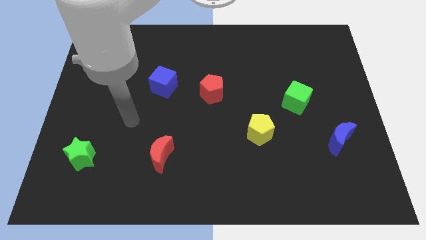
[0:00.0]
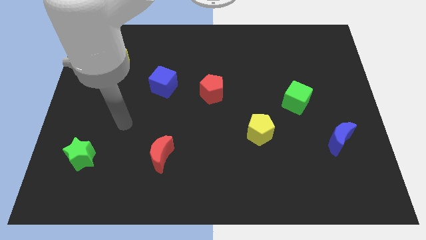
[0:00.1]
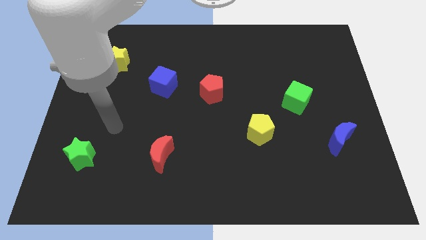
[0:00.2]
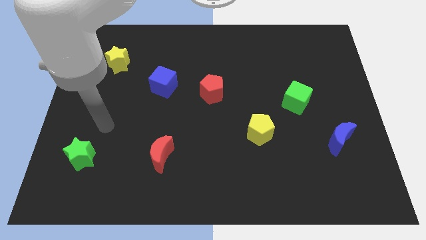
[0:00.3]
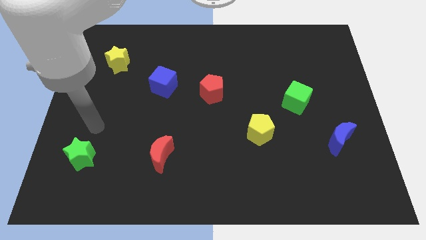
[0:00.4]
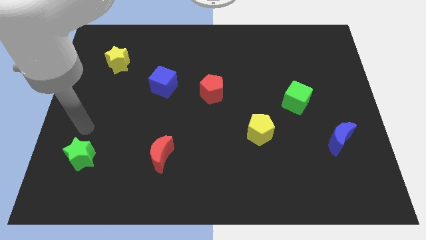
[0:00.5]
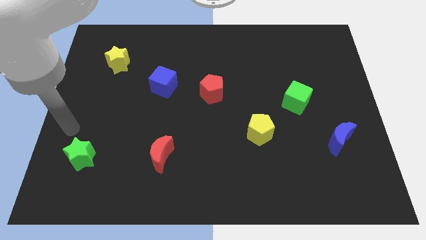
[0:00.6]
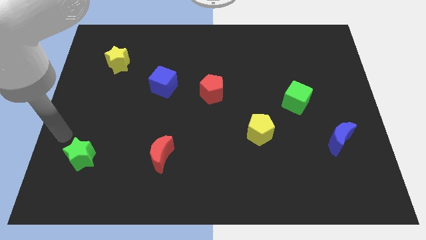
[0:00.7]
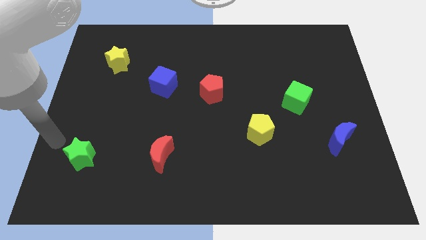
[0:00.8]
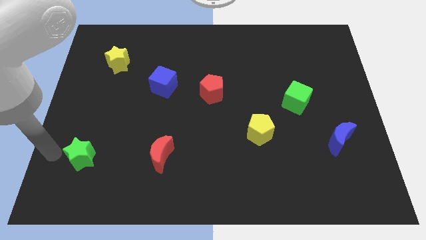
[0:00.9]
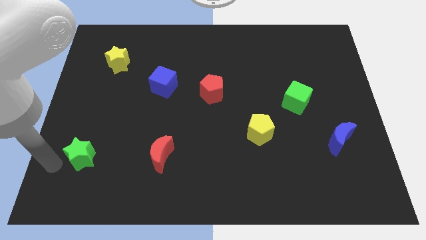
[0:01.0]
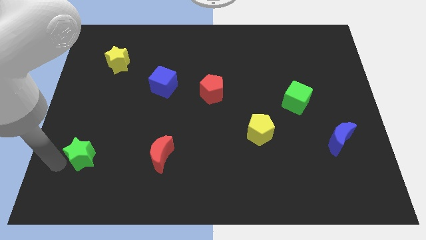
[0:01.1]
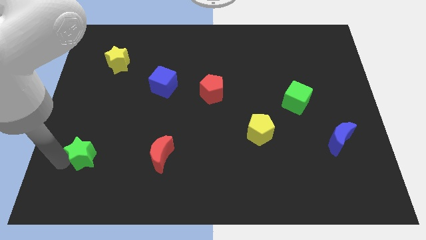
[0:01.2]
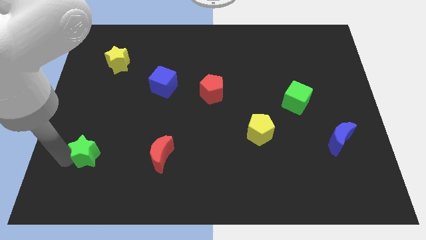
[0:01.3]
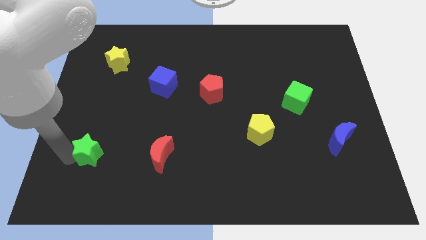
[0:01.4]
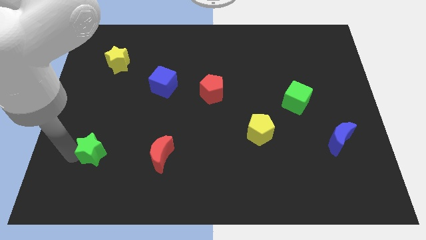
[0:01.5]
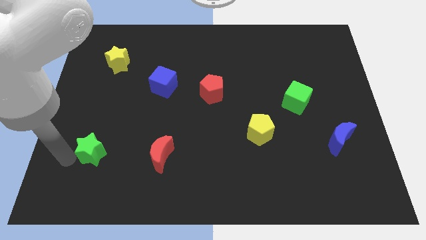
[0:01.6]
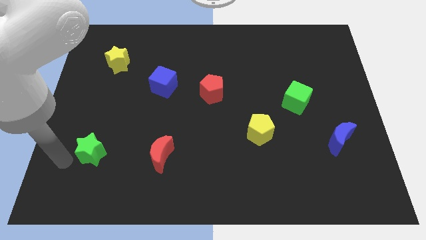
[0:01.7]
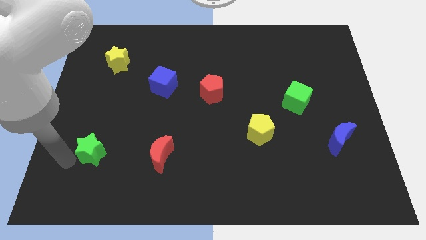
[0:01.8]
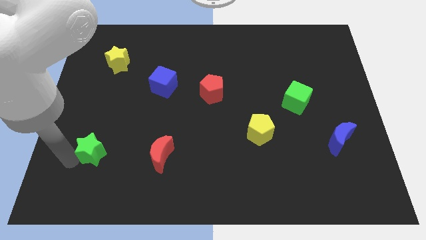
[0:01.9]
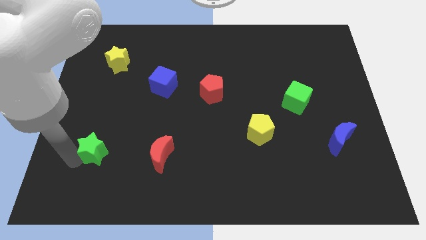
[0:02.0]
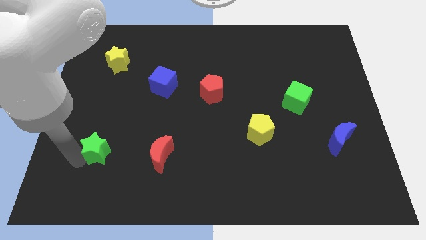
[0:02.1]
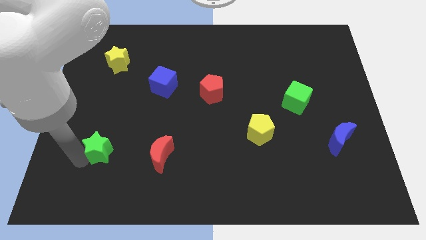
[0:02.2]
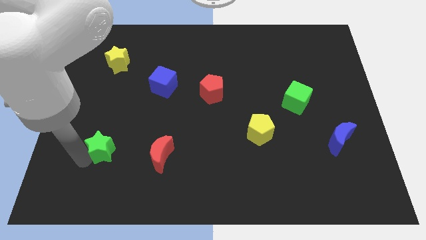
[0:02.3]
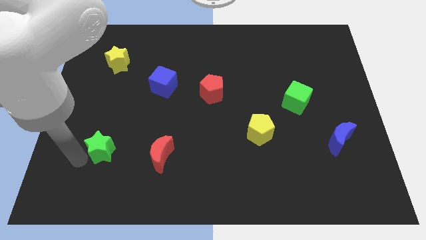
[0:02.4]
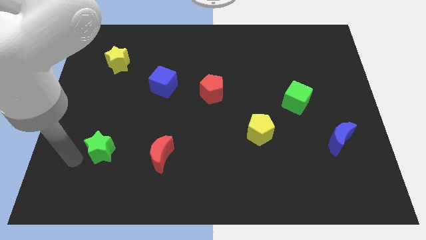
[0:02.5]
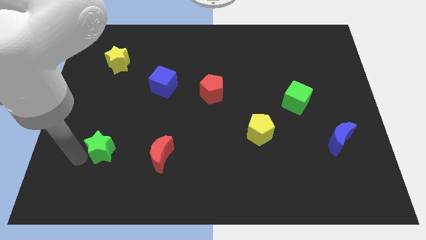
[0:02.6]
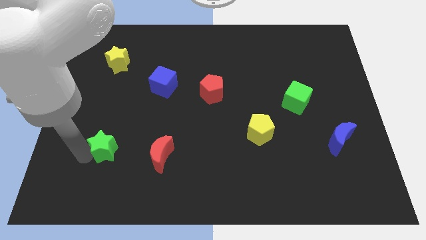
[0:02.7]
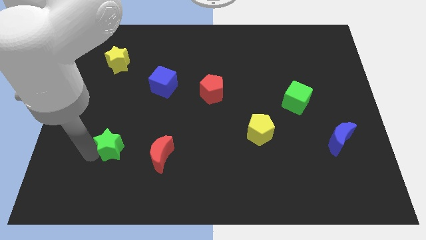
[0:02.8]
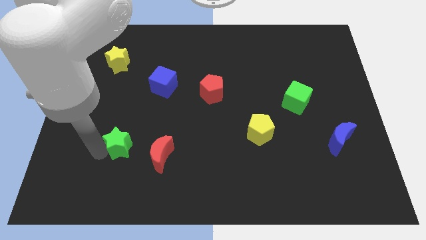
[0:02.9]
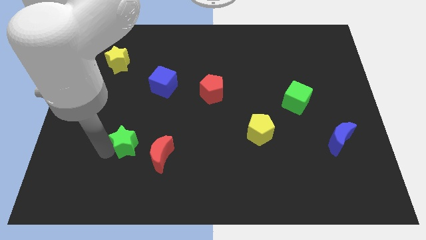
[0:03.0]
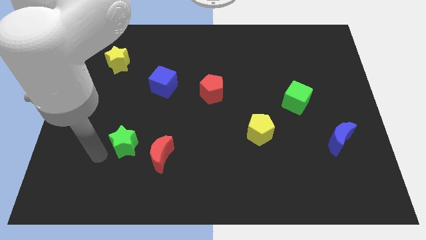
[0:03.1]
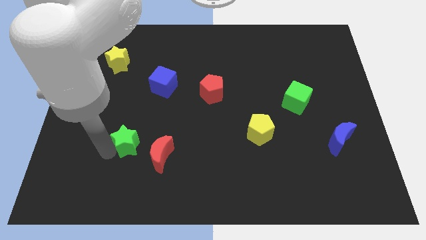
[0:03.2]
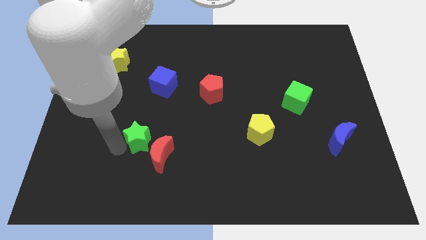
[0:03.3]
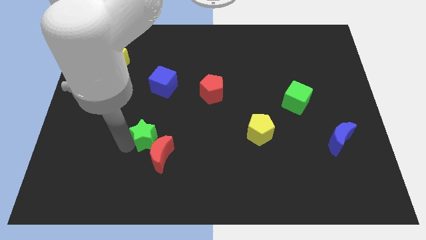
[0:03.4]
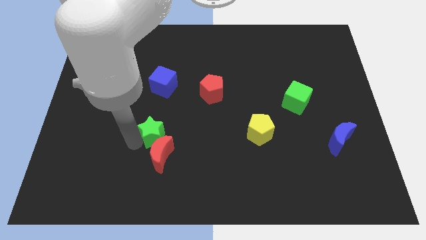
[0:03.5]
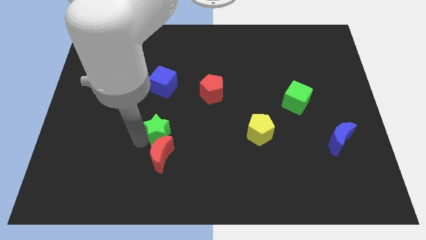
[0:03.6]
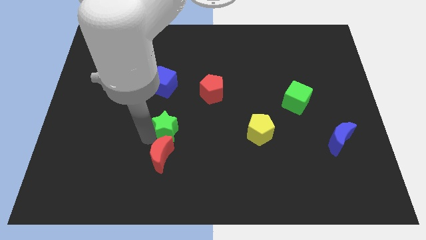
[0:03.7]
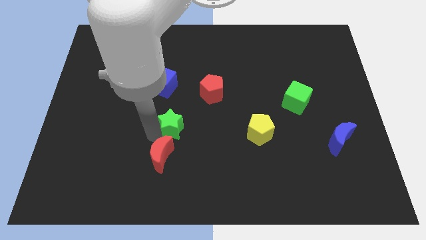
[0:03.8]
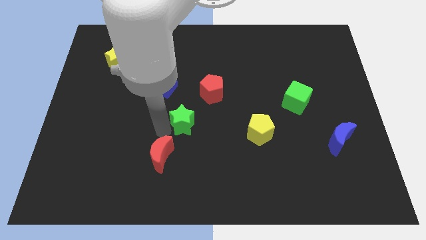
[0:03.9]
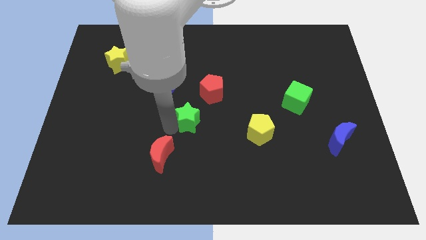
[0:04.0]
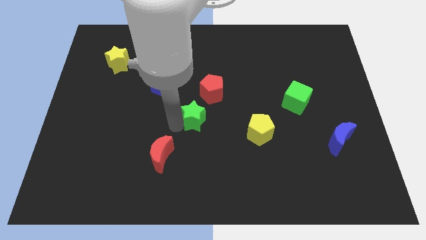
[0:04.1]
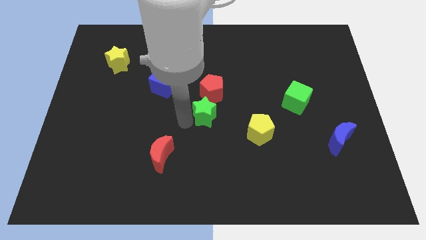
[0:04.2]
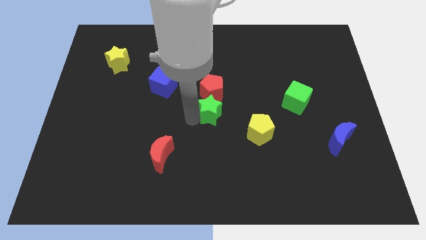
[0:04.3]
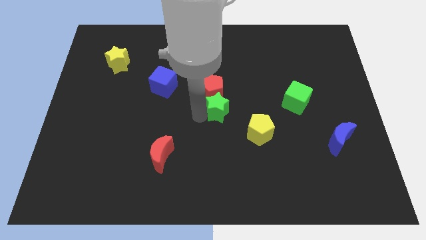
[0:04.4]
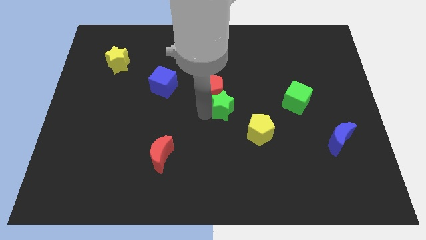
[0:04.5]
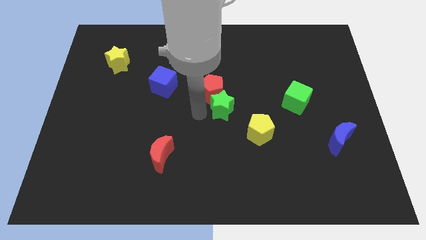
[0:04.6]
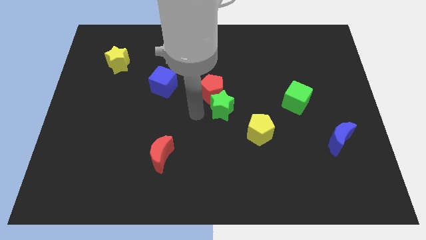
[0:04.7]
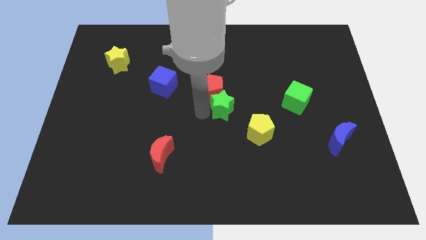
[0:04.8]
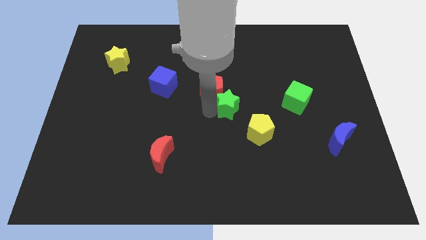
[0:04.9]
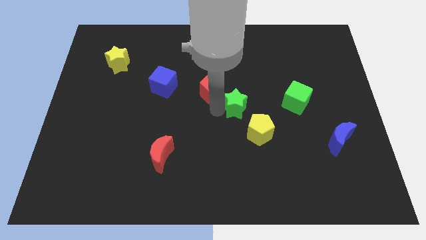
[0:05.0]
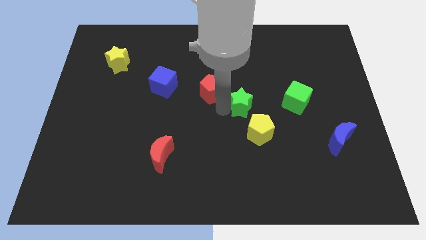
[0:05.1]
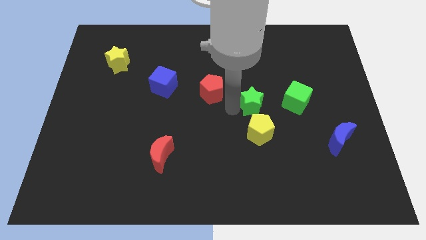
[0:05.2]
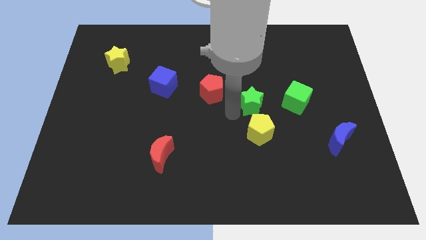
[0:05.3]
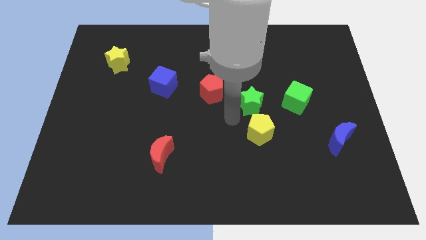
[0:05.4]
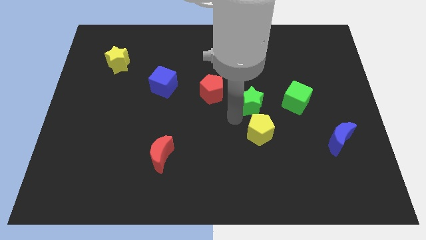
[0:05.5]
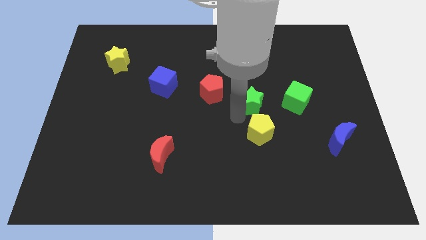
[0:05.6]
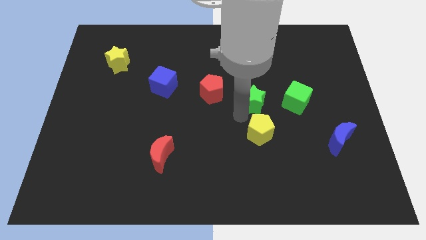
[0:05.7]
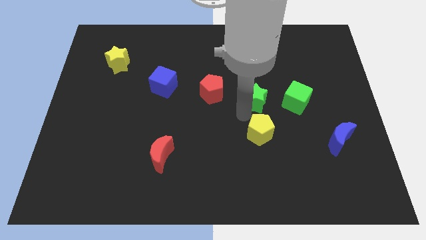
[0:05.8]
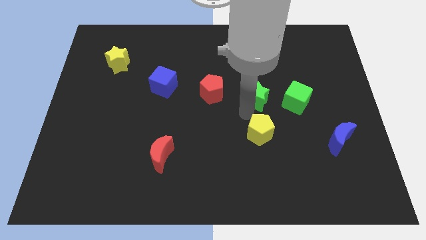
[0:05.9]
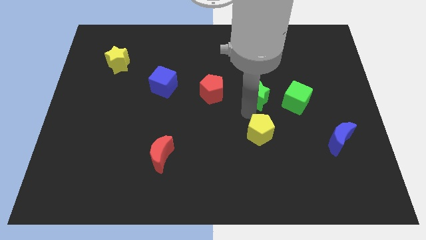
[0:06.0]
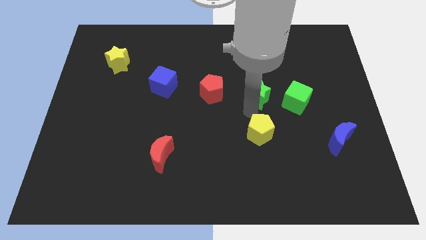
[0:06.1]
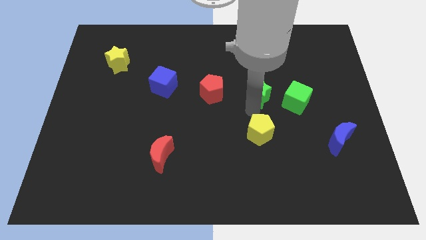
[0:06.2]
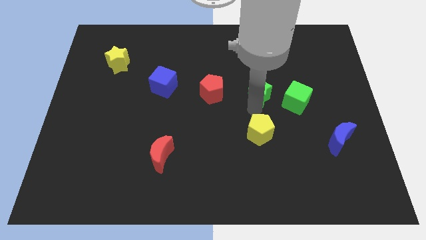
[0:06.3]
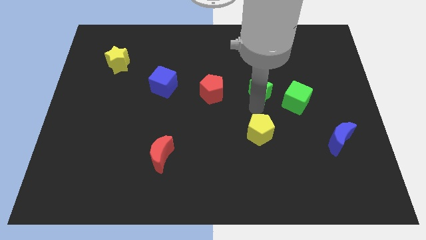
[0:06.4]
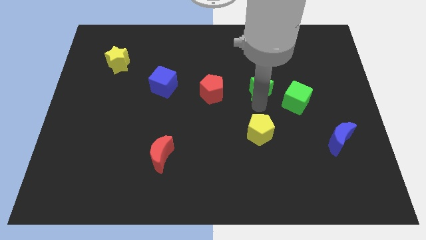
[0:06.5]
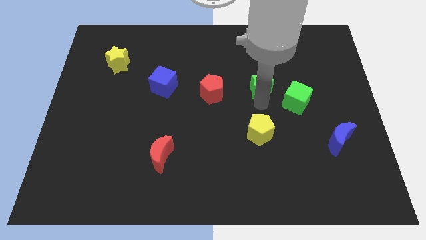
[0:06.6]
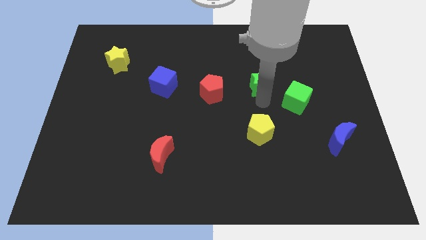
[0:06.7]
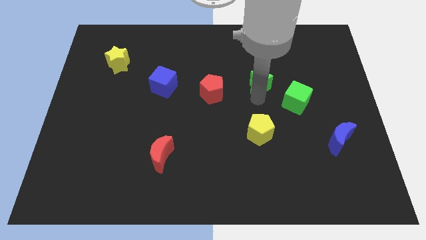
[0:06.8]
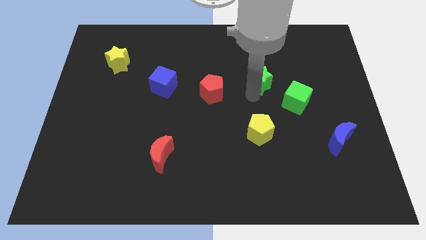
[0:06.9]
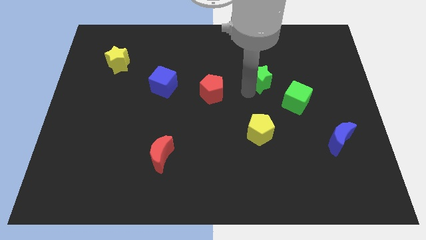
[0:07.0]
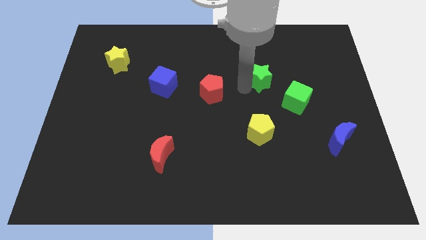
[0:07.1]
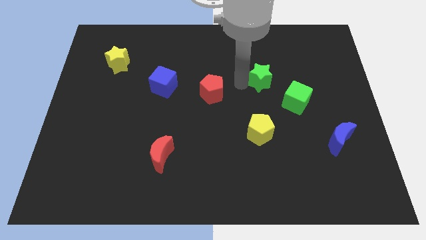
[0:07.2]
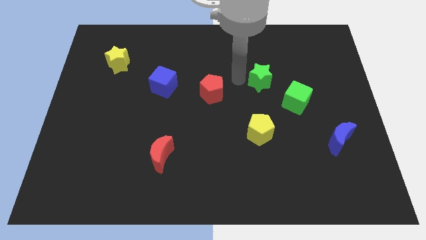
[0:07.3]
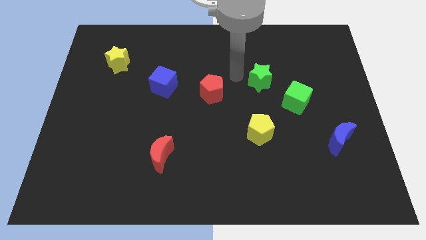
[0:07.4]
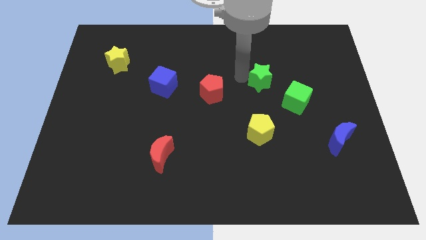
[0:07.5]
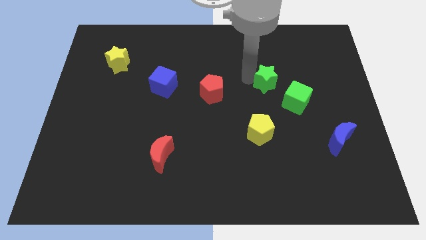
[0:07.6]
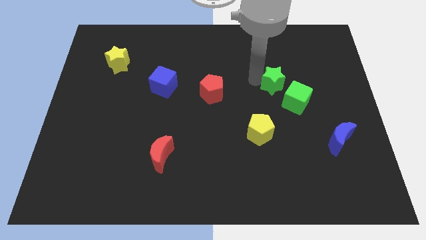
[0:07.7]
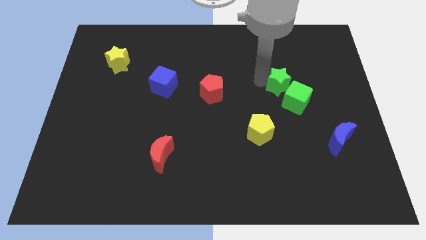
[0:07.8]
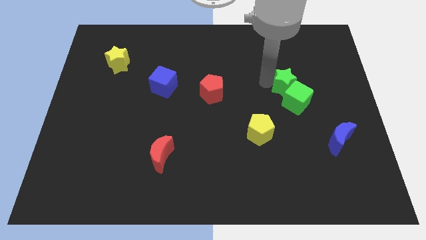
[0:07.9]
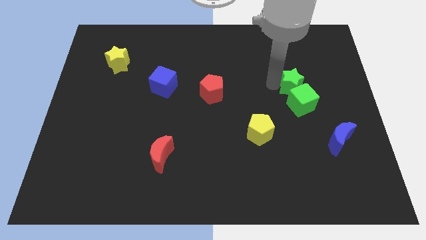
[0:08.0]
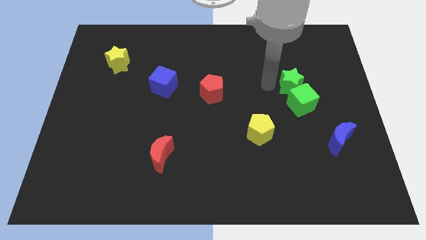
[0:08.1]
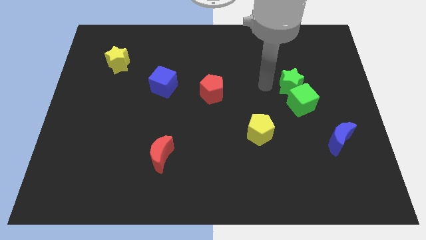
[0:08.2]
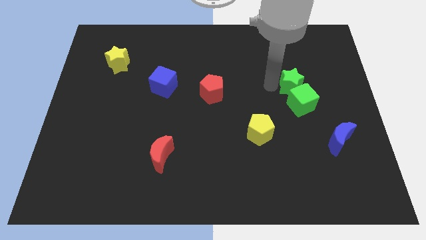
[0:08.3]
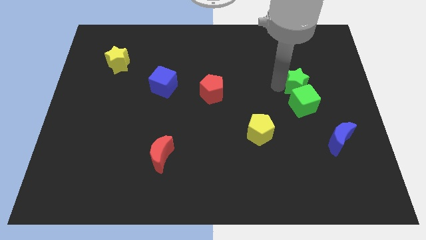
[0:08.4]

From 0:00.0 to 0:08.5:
slide the green star to the top right side of the green cube
